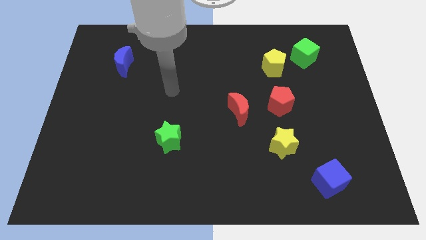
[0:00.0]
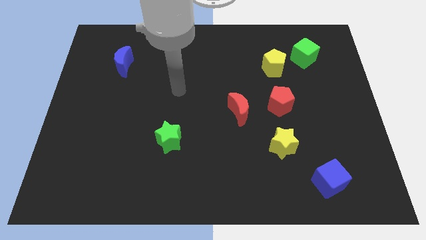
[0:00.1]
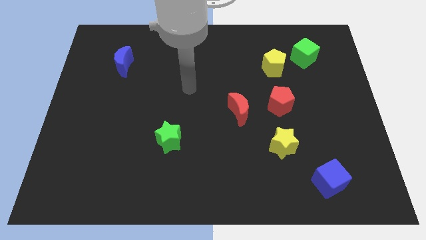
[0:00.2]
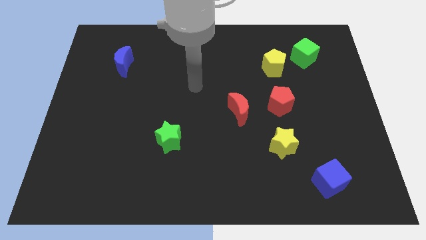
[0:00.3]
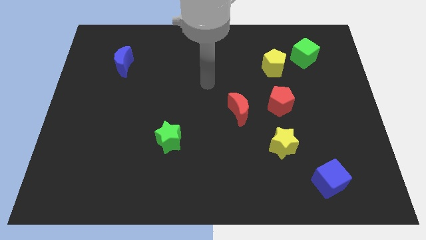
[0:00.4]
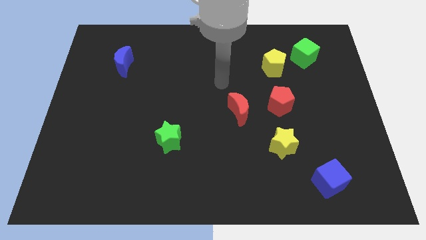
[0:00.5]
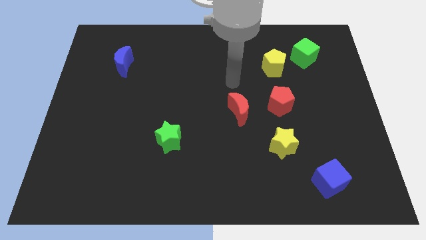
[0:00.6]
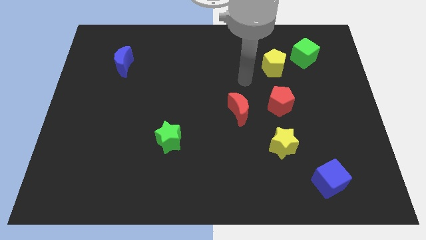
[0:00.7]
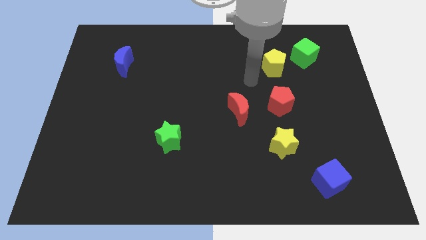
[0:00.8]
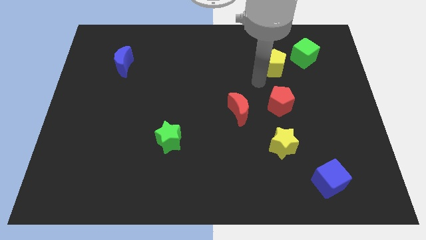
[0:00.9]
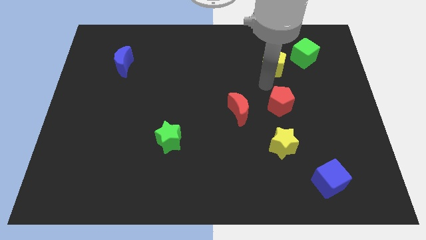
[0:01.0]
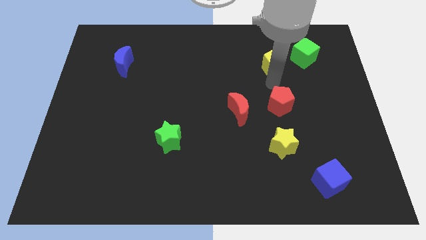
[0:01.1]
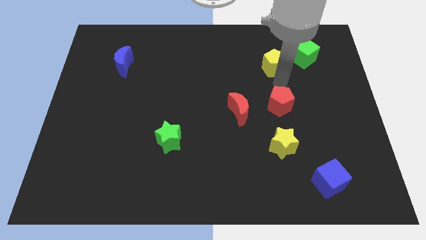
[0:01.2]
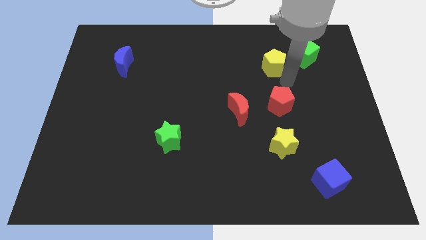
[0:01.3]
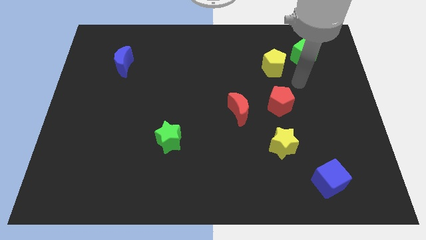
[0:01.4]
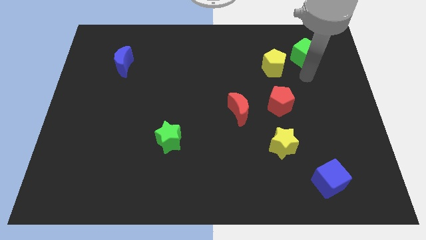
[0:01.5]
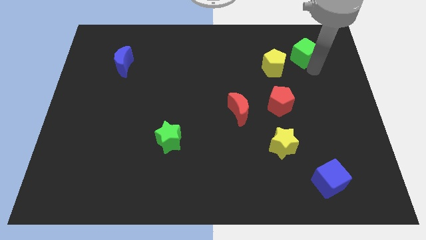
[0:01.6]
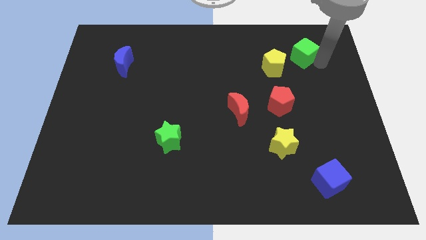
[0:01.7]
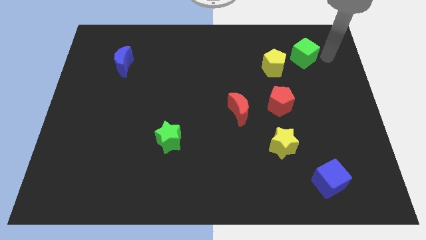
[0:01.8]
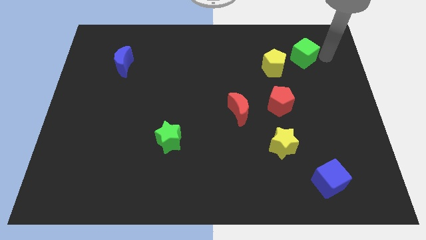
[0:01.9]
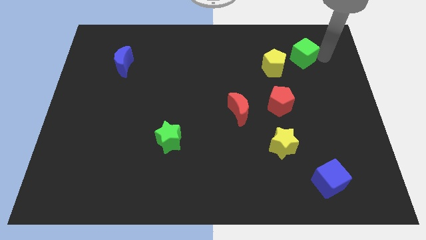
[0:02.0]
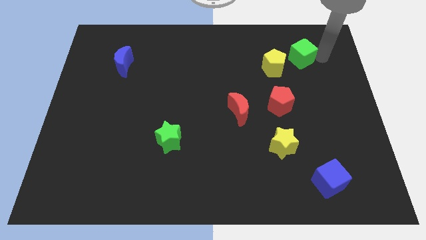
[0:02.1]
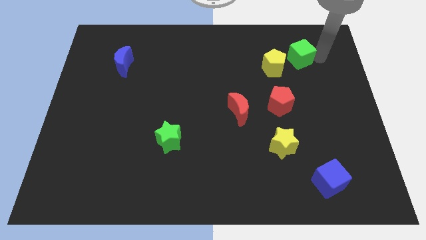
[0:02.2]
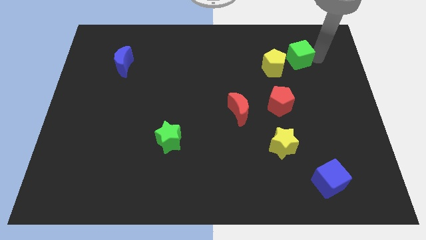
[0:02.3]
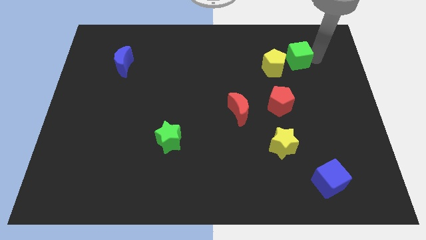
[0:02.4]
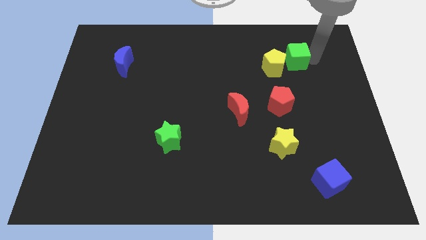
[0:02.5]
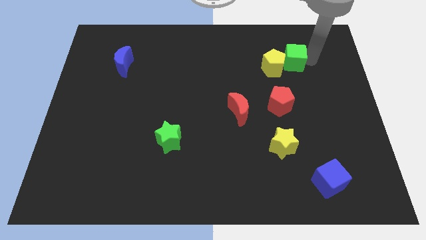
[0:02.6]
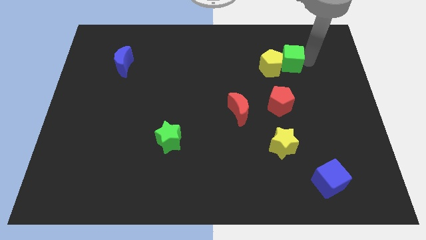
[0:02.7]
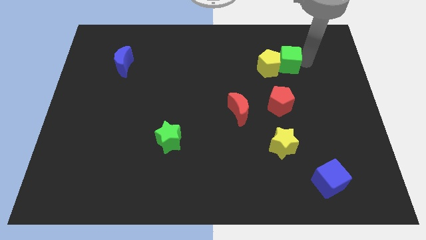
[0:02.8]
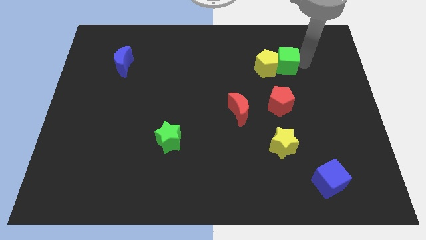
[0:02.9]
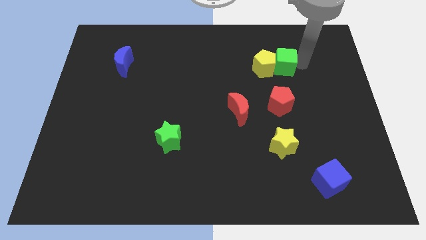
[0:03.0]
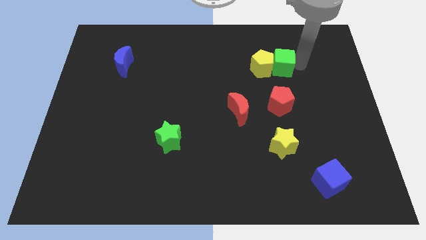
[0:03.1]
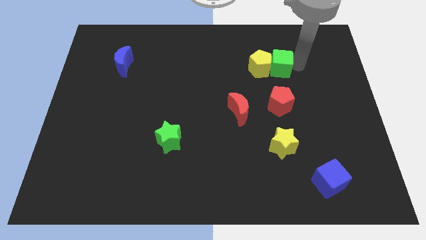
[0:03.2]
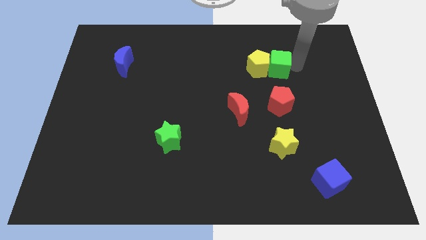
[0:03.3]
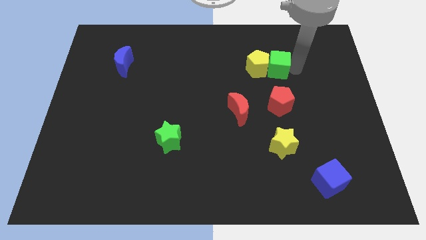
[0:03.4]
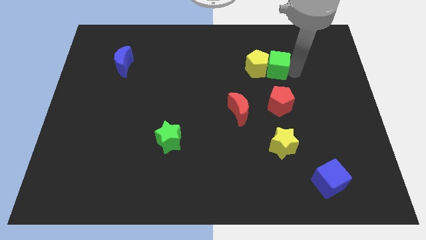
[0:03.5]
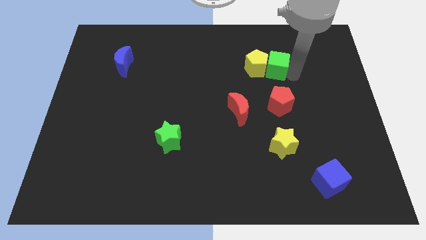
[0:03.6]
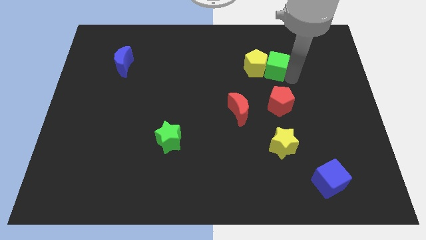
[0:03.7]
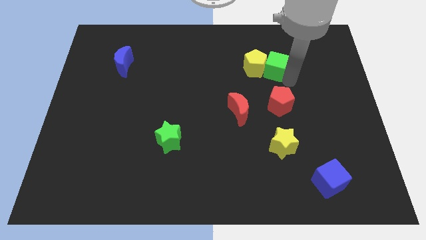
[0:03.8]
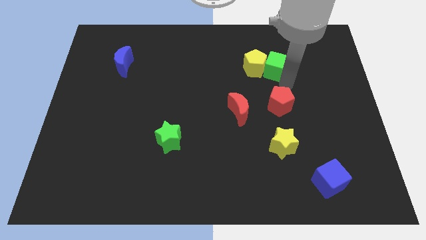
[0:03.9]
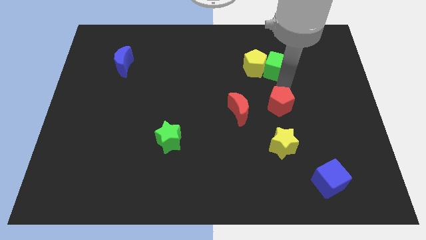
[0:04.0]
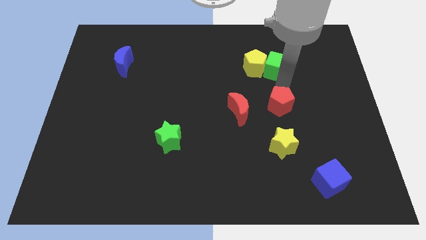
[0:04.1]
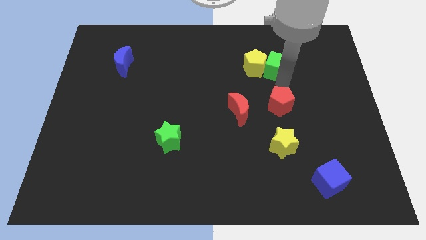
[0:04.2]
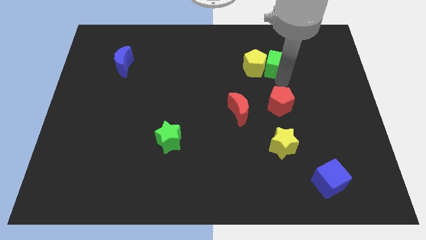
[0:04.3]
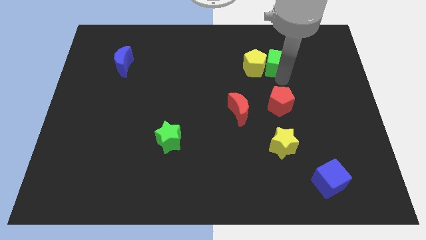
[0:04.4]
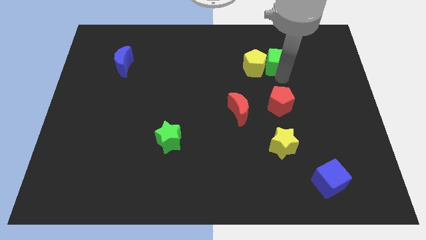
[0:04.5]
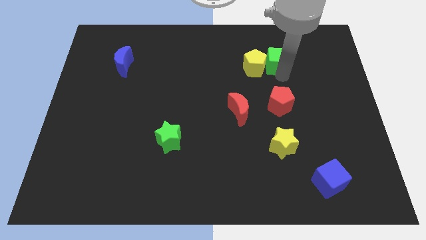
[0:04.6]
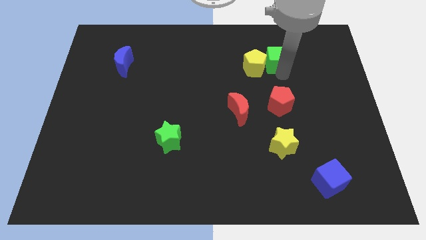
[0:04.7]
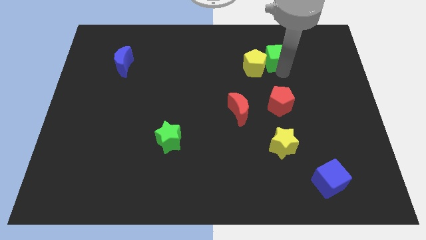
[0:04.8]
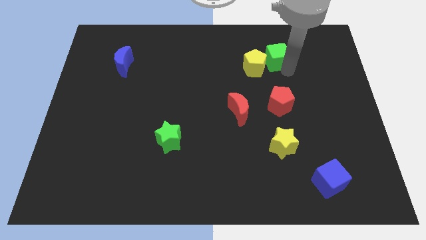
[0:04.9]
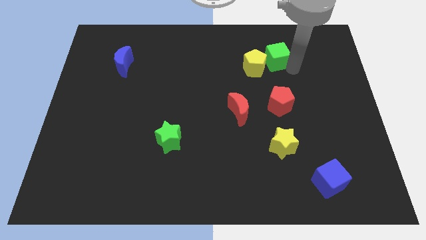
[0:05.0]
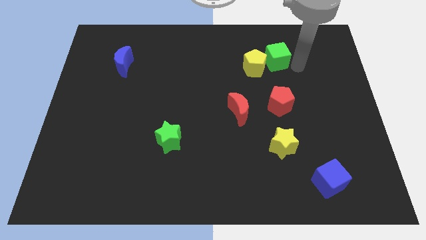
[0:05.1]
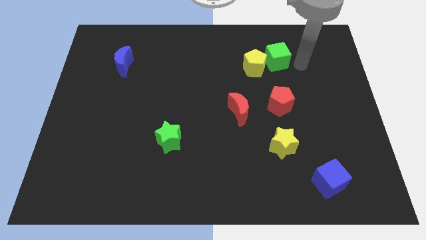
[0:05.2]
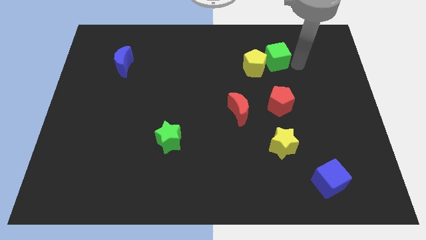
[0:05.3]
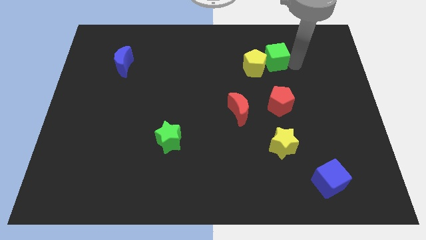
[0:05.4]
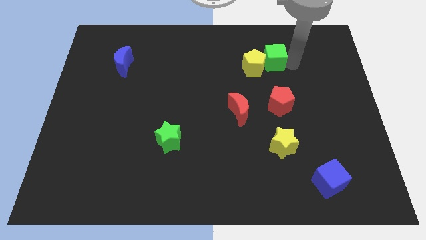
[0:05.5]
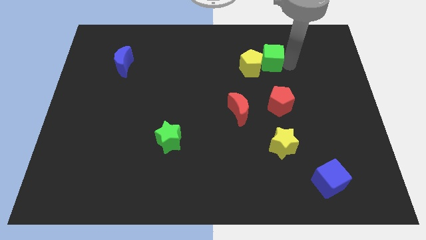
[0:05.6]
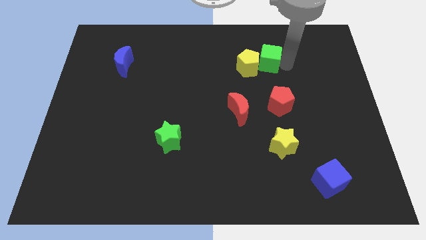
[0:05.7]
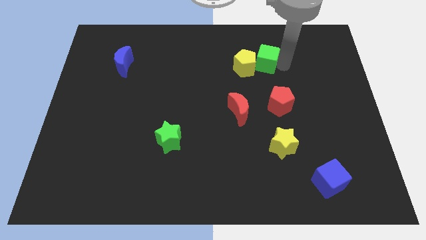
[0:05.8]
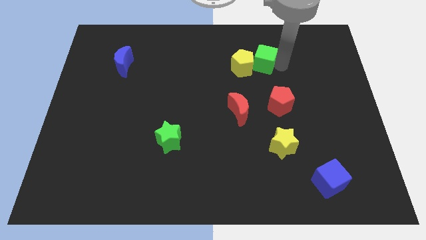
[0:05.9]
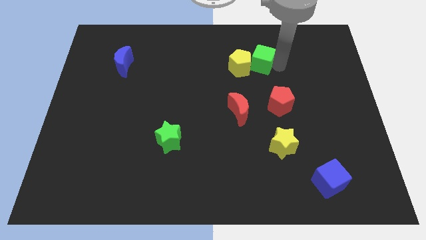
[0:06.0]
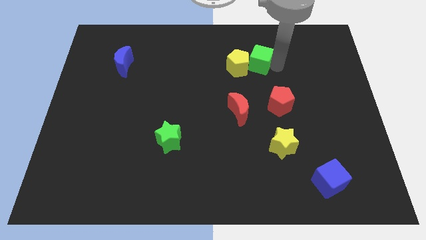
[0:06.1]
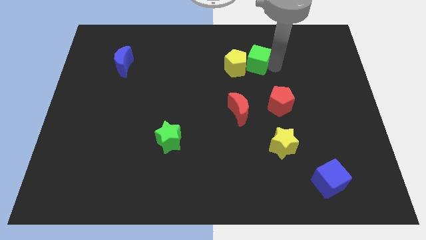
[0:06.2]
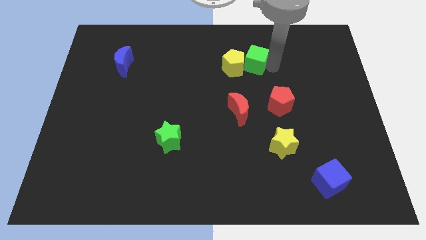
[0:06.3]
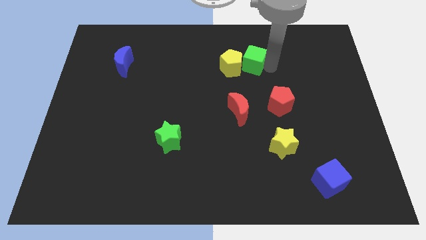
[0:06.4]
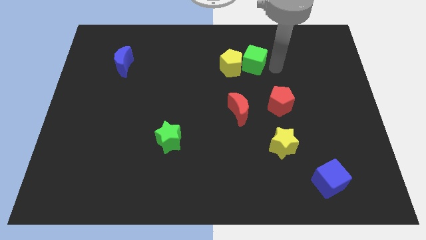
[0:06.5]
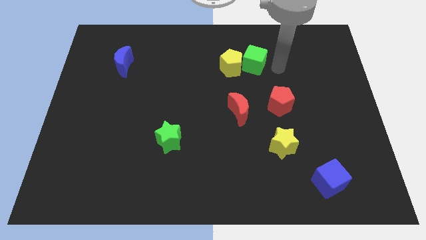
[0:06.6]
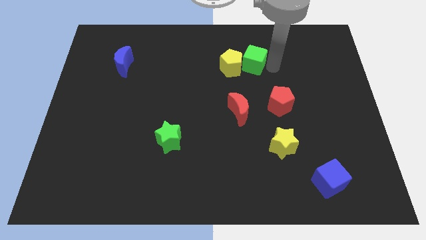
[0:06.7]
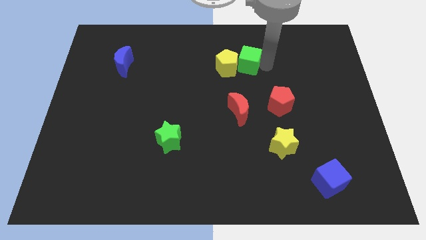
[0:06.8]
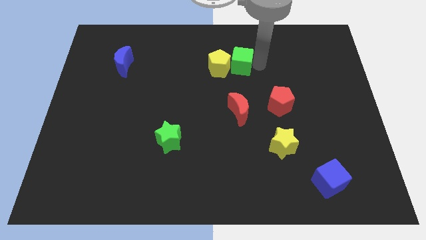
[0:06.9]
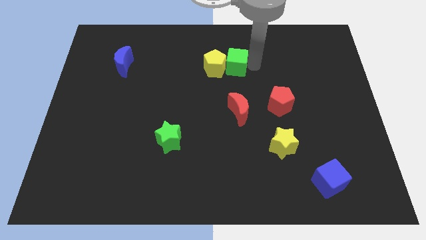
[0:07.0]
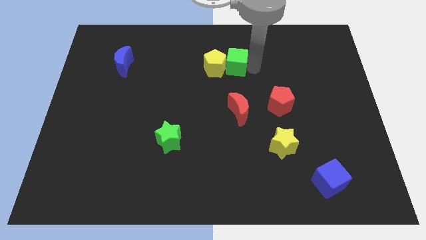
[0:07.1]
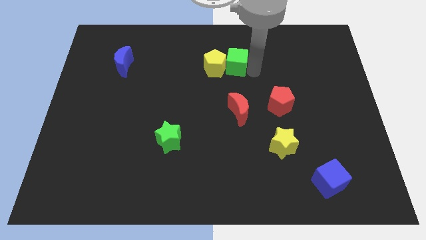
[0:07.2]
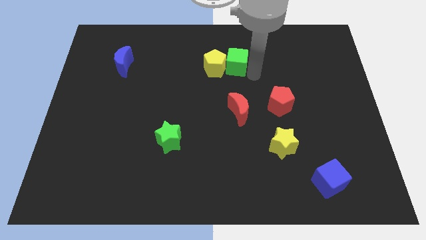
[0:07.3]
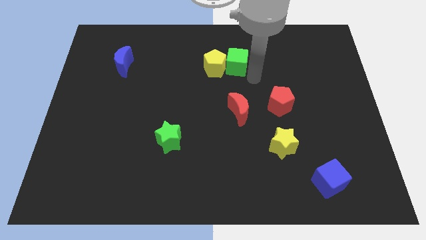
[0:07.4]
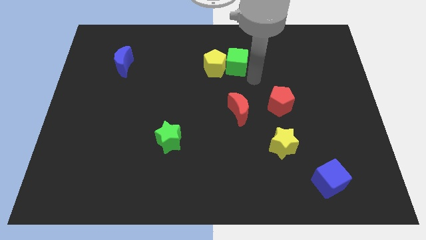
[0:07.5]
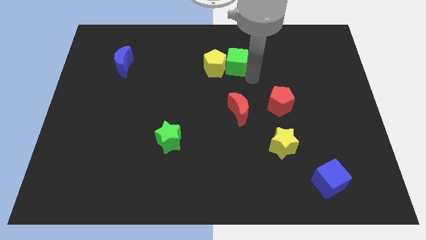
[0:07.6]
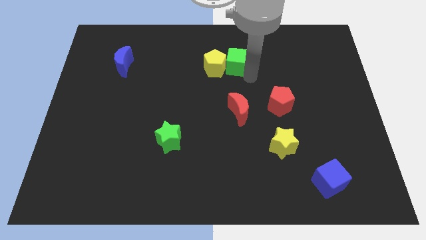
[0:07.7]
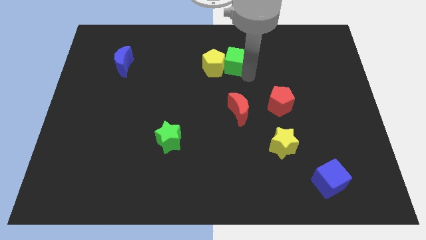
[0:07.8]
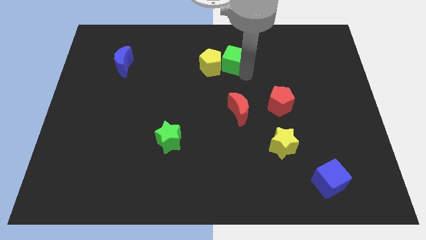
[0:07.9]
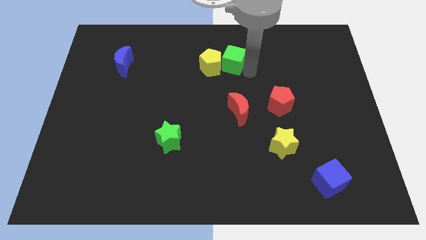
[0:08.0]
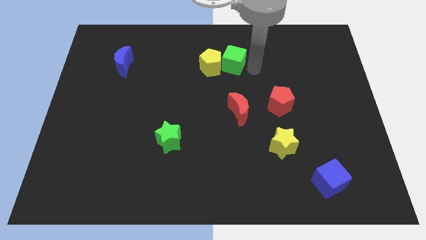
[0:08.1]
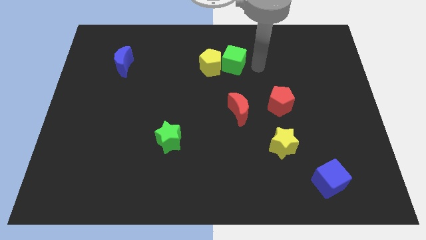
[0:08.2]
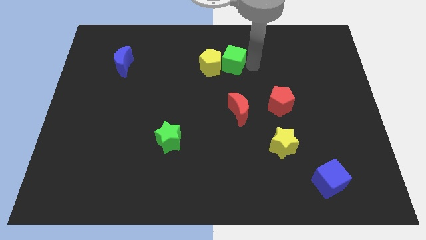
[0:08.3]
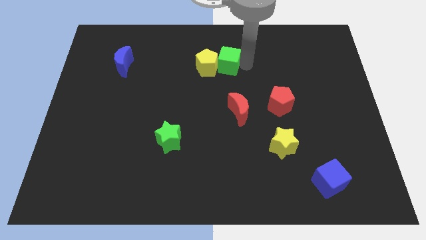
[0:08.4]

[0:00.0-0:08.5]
slide the green cube to the left
